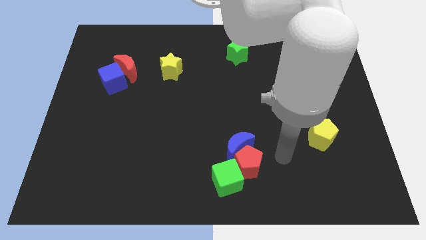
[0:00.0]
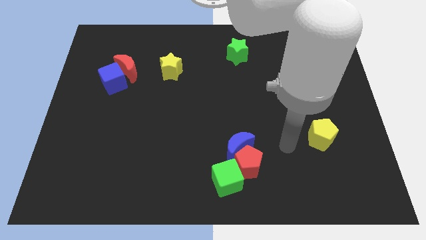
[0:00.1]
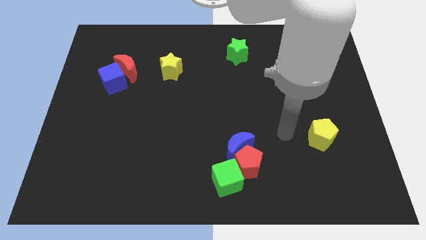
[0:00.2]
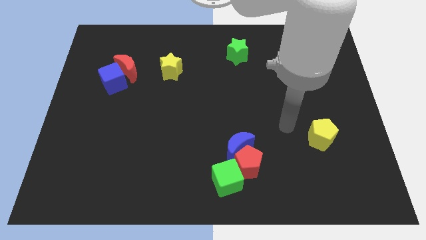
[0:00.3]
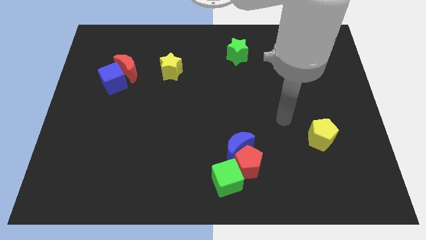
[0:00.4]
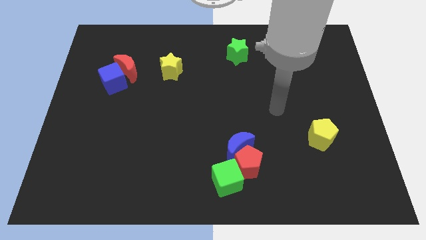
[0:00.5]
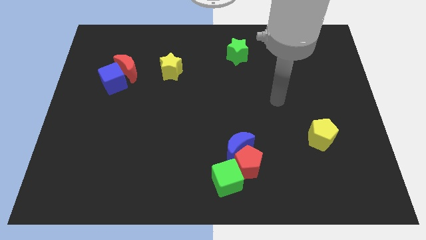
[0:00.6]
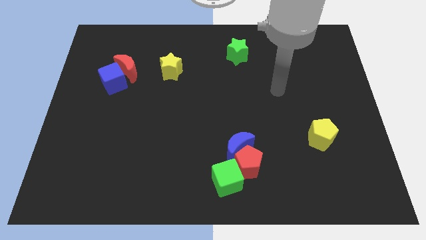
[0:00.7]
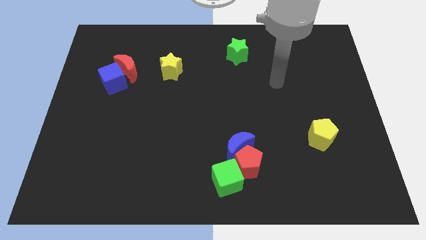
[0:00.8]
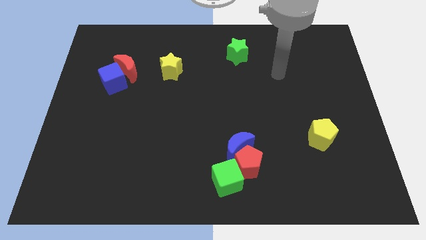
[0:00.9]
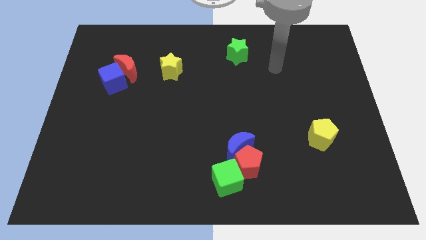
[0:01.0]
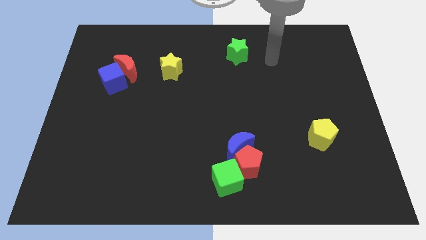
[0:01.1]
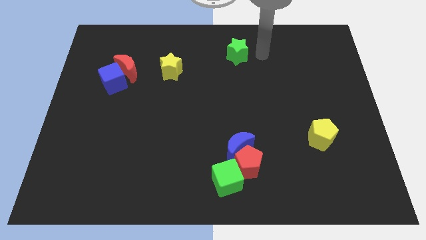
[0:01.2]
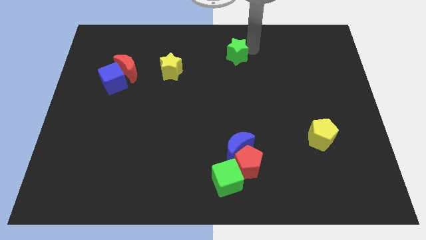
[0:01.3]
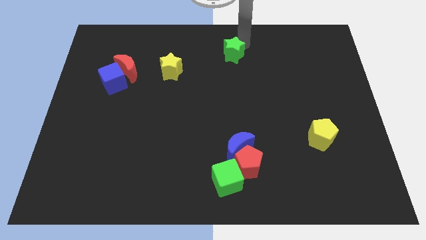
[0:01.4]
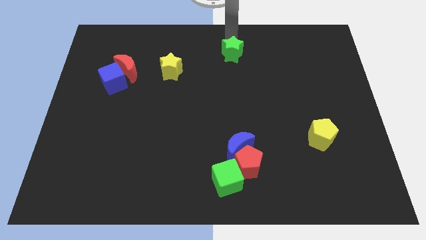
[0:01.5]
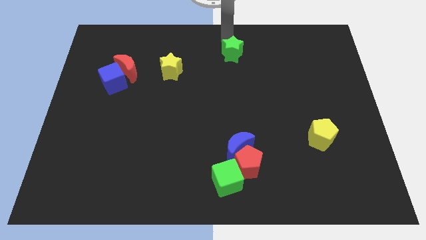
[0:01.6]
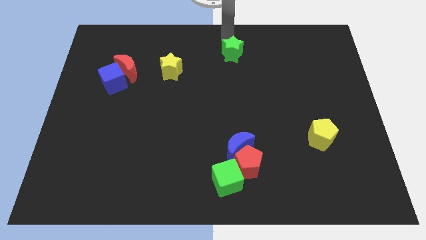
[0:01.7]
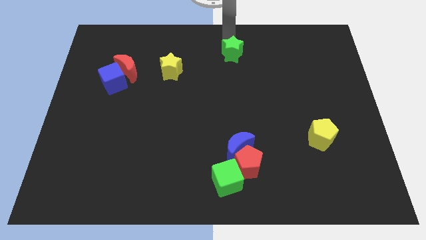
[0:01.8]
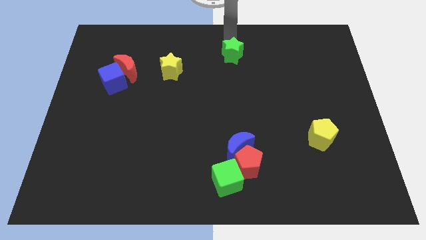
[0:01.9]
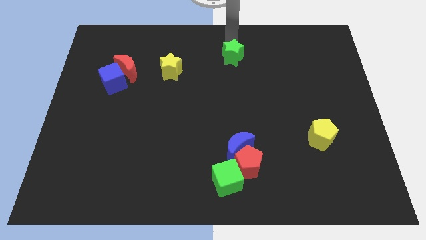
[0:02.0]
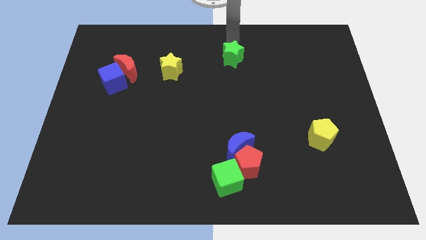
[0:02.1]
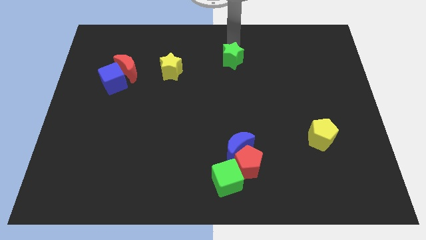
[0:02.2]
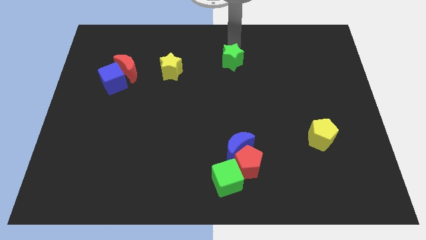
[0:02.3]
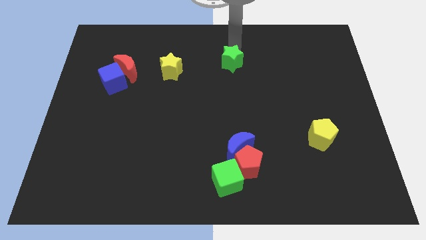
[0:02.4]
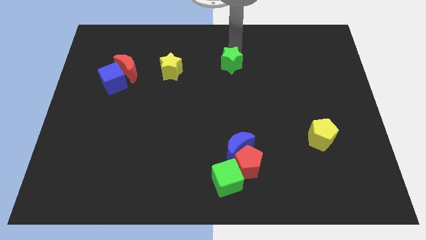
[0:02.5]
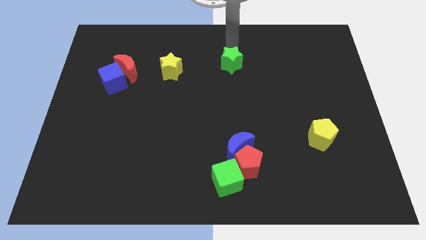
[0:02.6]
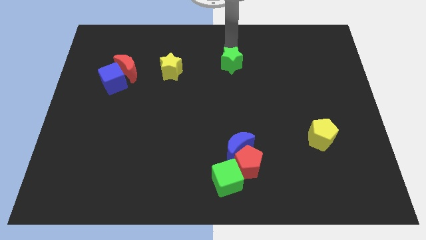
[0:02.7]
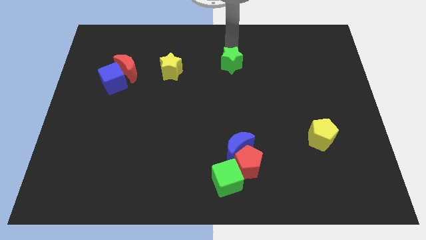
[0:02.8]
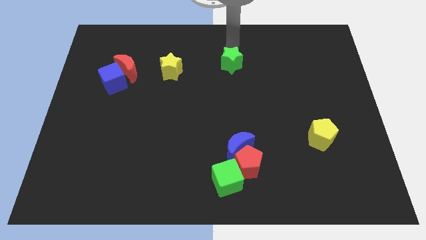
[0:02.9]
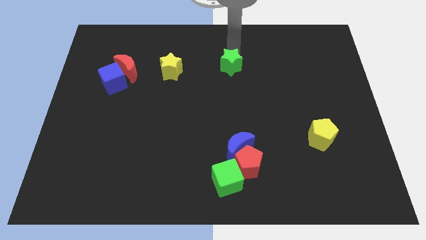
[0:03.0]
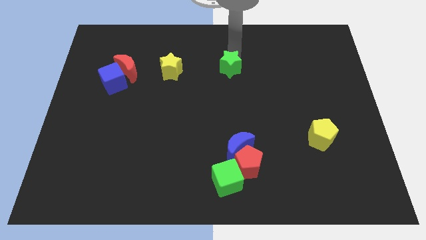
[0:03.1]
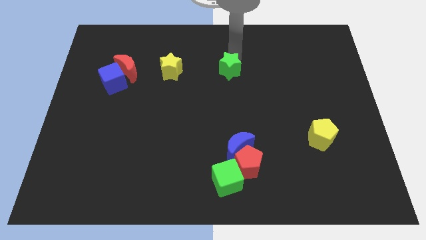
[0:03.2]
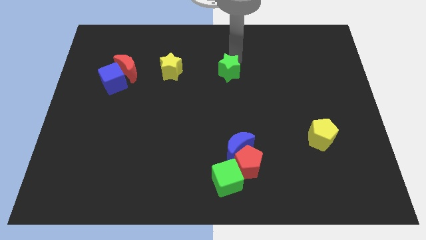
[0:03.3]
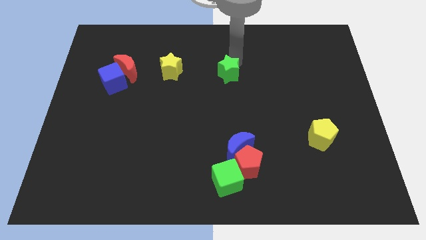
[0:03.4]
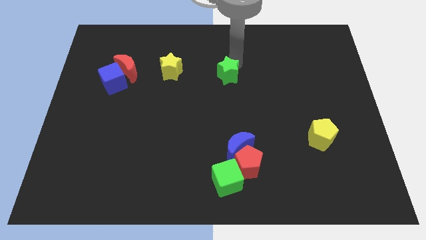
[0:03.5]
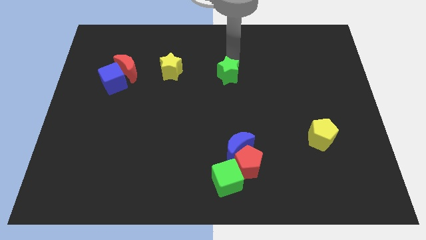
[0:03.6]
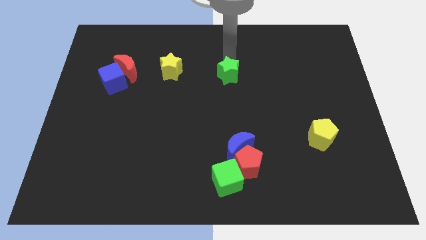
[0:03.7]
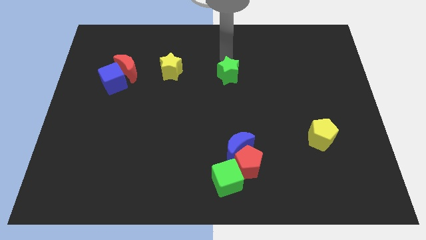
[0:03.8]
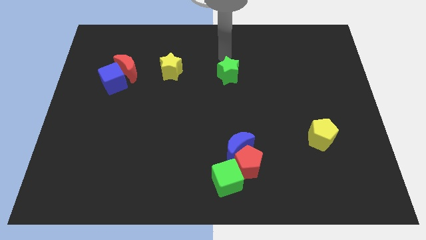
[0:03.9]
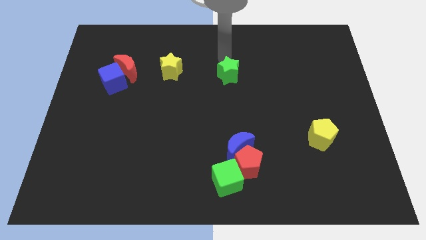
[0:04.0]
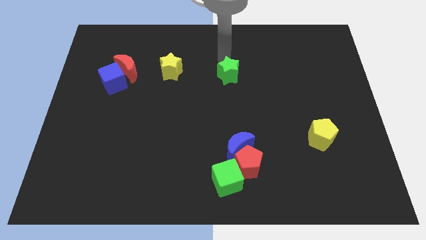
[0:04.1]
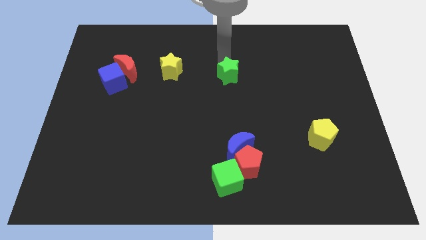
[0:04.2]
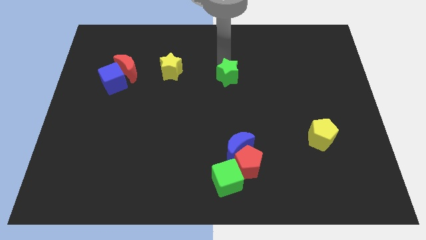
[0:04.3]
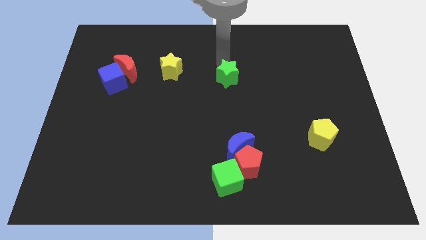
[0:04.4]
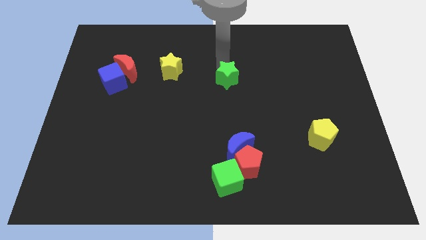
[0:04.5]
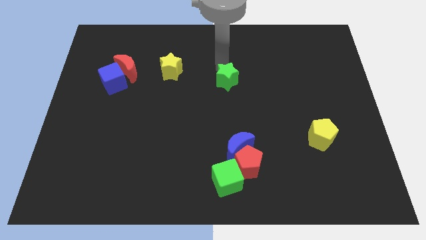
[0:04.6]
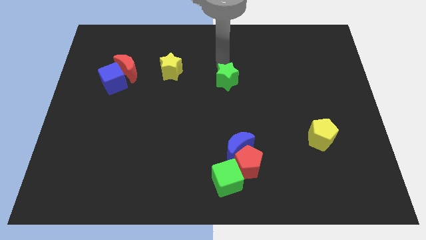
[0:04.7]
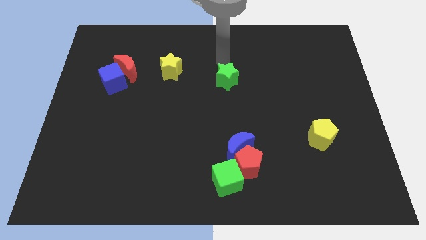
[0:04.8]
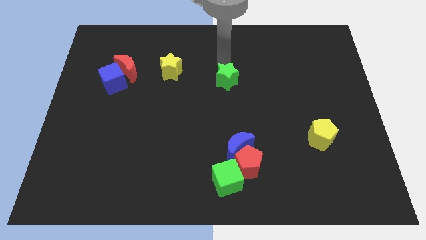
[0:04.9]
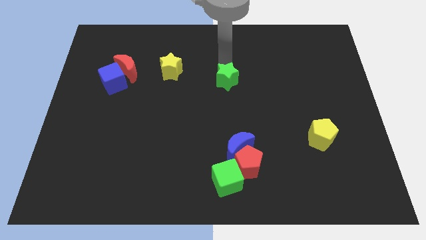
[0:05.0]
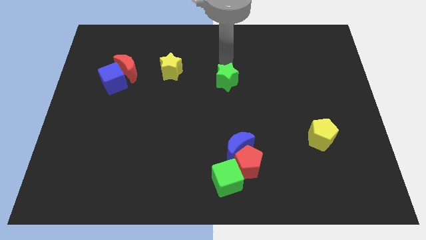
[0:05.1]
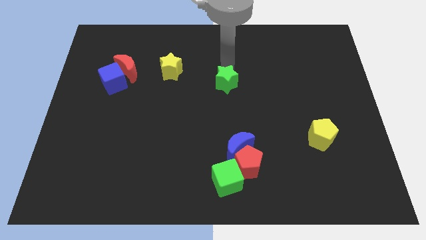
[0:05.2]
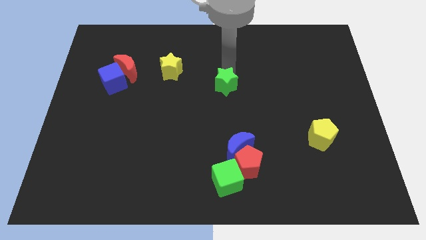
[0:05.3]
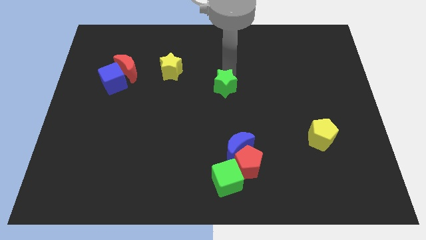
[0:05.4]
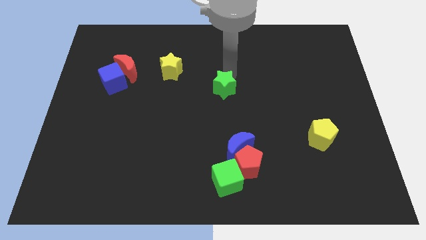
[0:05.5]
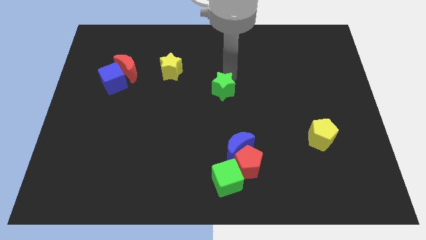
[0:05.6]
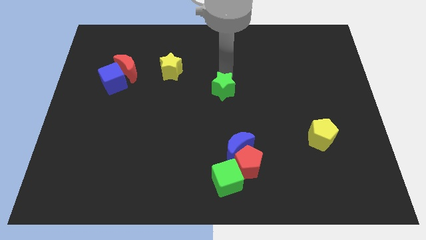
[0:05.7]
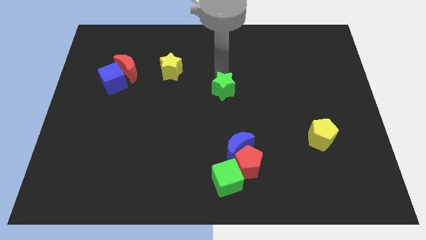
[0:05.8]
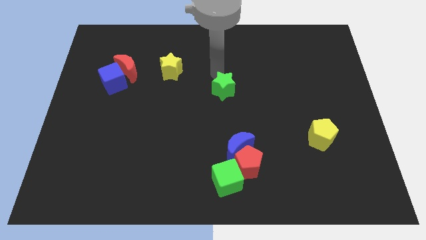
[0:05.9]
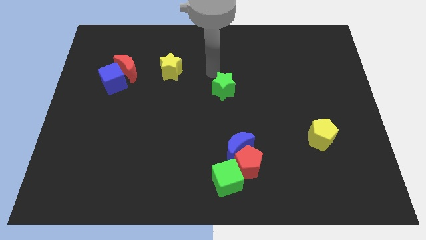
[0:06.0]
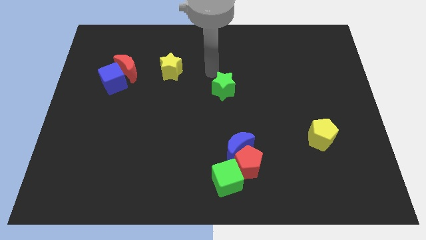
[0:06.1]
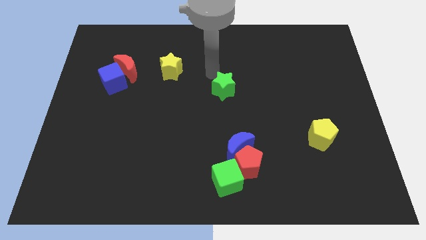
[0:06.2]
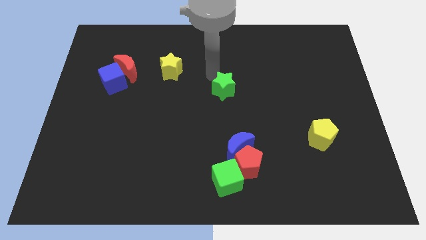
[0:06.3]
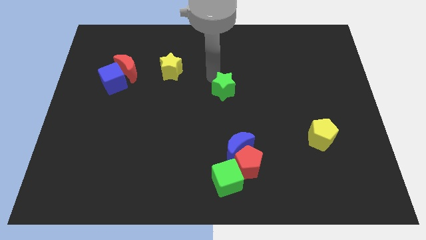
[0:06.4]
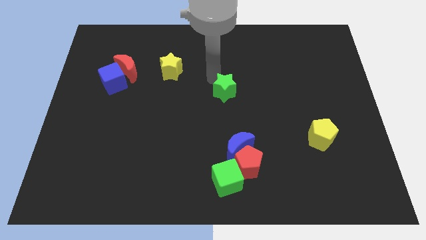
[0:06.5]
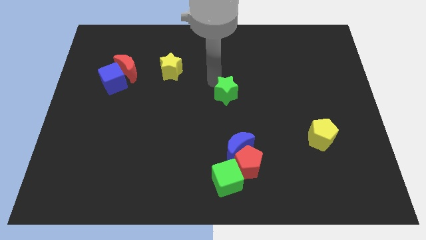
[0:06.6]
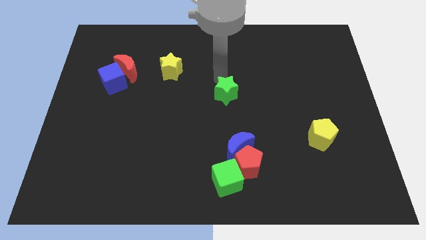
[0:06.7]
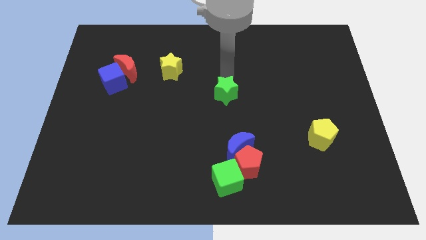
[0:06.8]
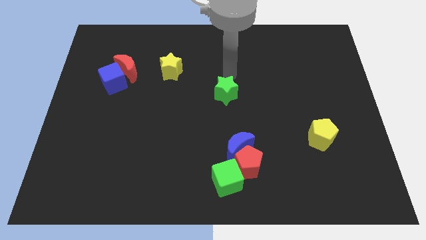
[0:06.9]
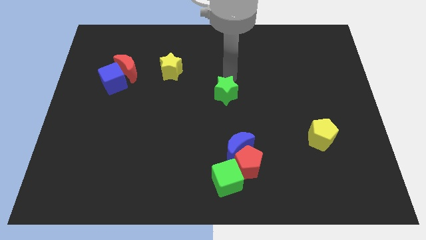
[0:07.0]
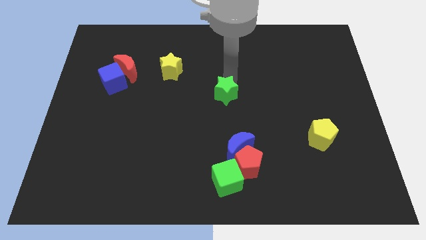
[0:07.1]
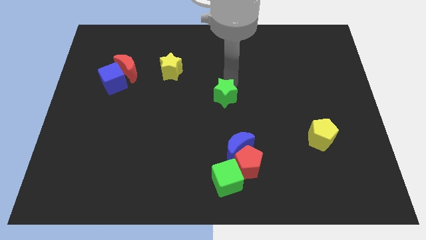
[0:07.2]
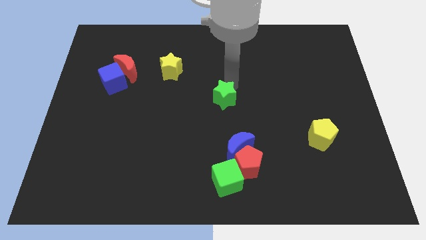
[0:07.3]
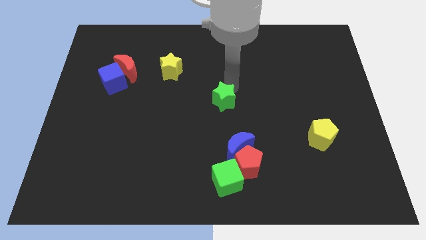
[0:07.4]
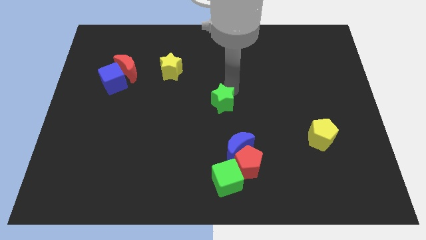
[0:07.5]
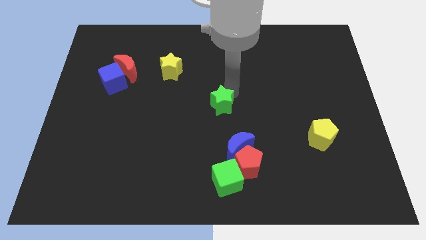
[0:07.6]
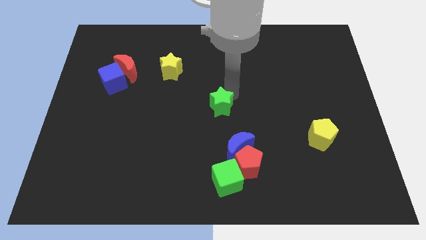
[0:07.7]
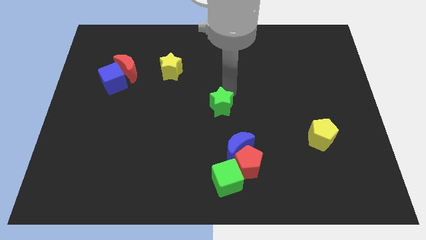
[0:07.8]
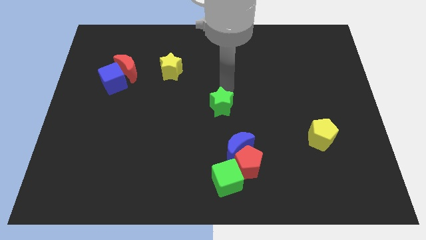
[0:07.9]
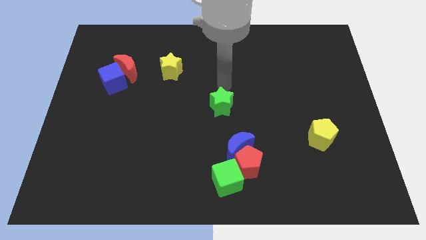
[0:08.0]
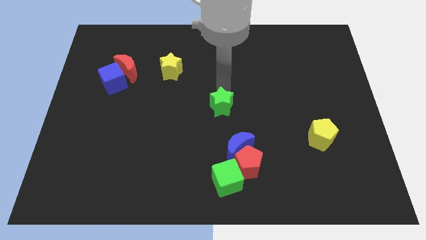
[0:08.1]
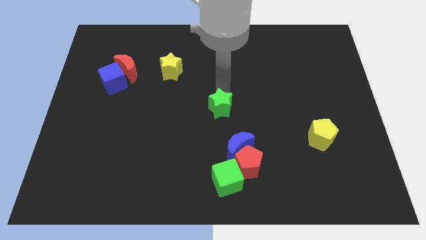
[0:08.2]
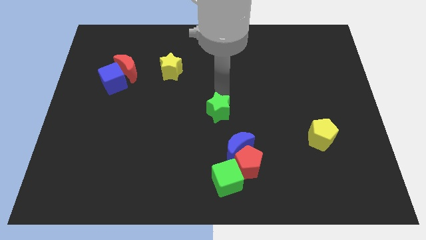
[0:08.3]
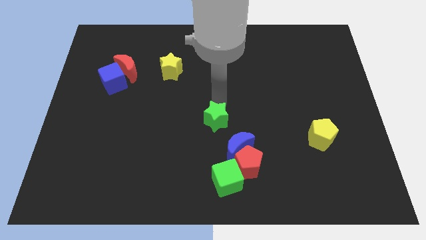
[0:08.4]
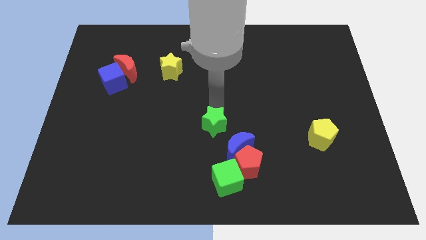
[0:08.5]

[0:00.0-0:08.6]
push the green star diagonally up and to the left of the red pentagon
